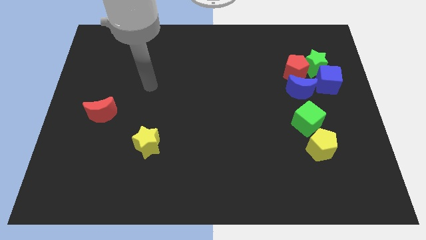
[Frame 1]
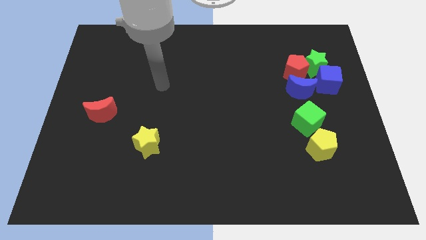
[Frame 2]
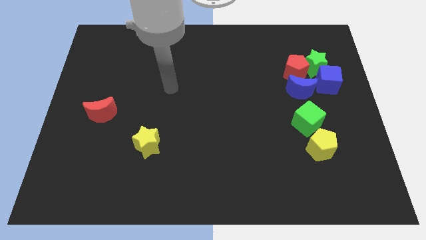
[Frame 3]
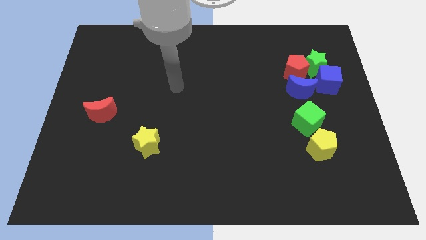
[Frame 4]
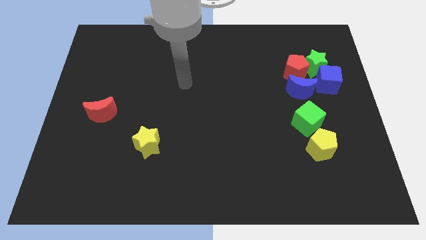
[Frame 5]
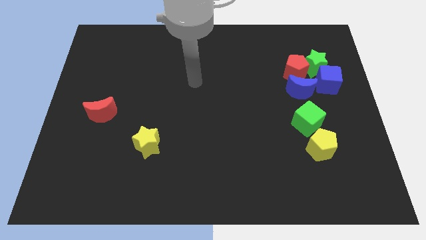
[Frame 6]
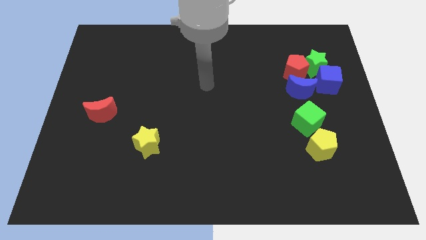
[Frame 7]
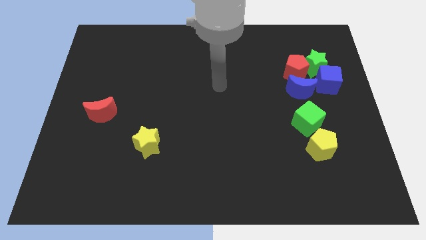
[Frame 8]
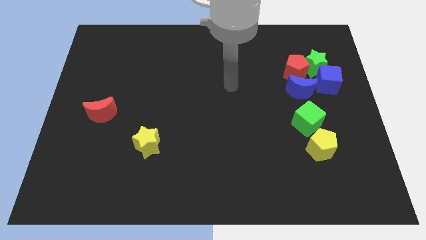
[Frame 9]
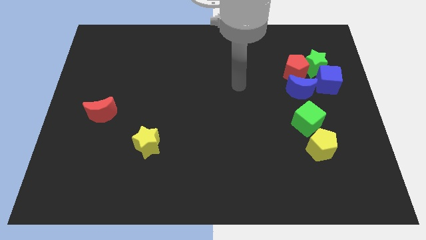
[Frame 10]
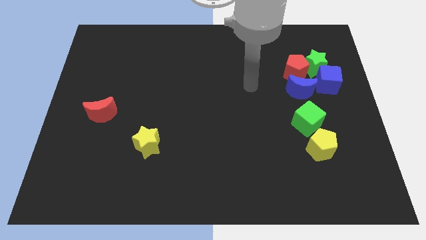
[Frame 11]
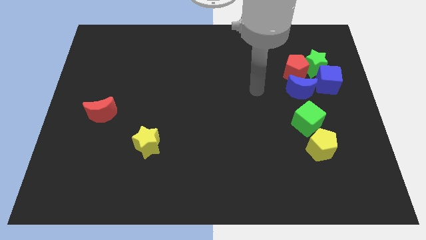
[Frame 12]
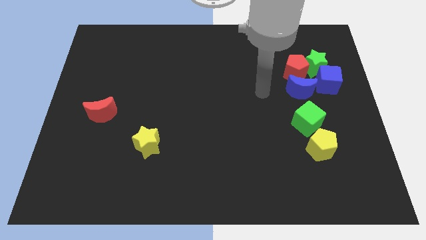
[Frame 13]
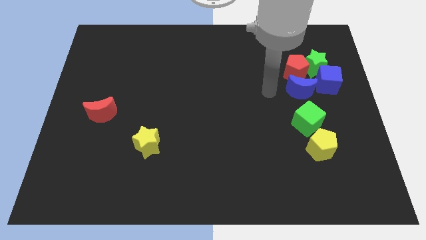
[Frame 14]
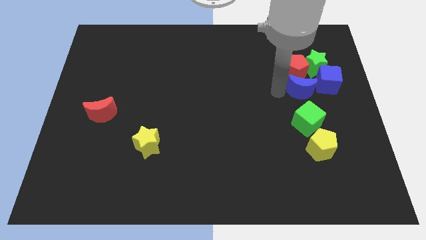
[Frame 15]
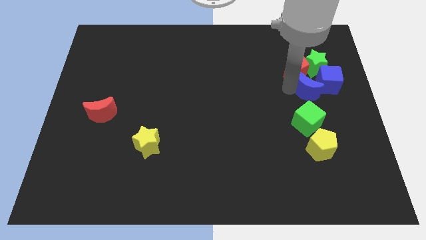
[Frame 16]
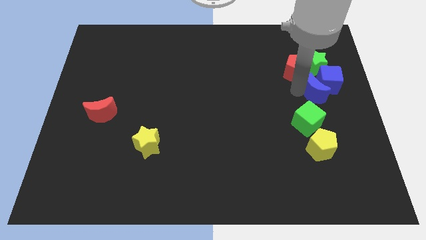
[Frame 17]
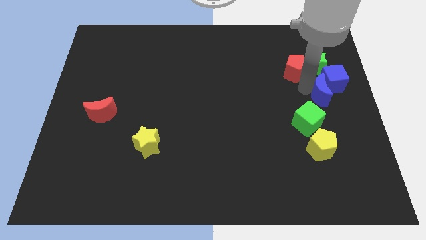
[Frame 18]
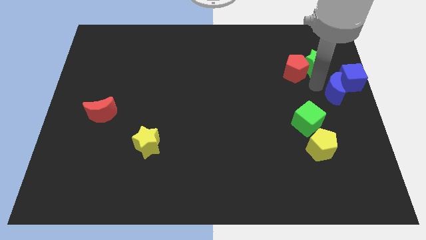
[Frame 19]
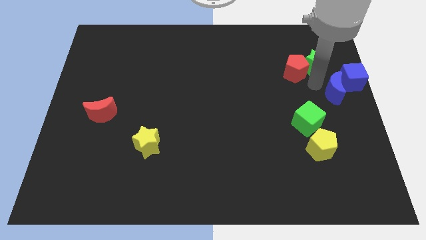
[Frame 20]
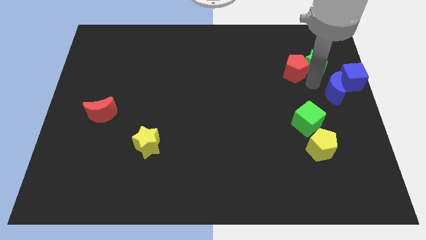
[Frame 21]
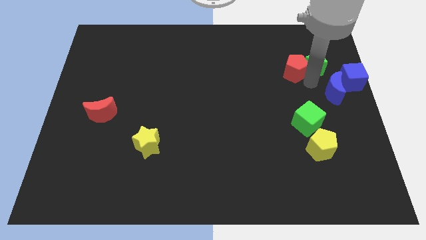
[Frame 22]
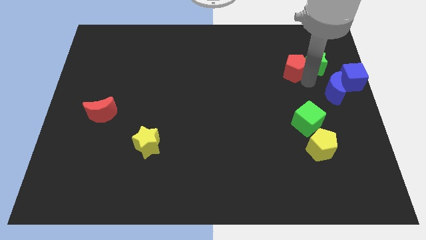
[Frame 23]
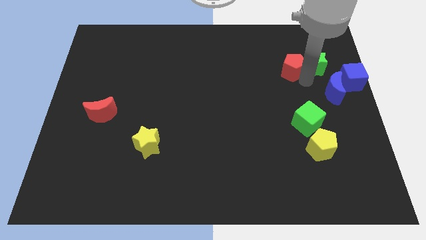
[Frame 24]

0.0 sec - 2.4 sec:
separate the red pentagon from the clump

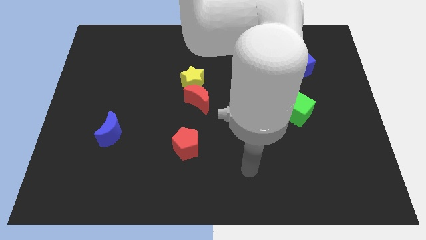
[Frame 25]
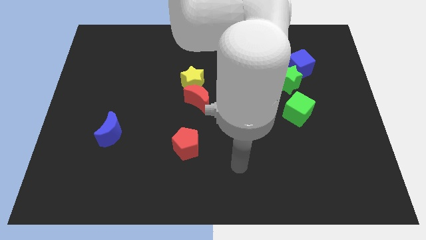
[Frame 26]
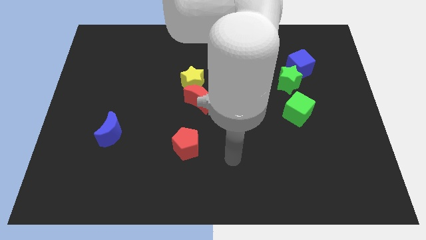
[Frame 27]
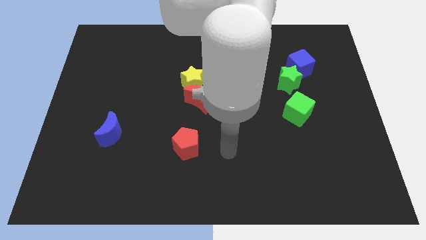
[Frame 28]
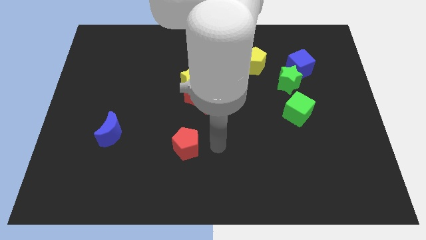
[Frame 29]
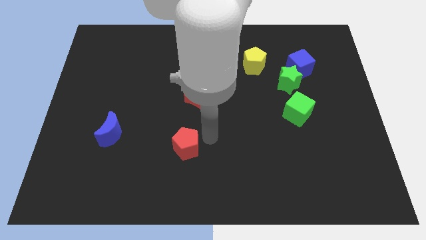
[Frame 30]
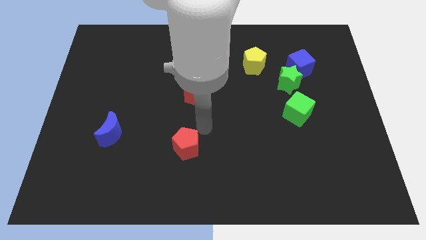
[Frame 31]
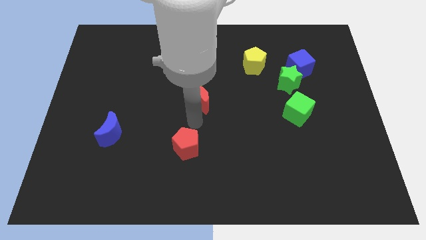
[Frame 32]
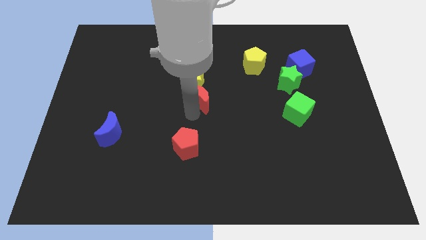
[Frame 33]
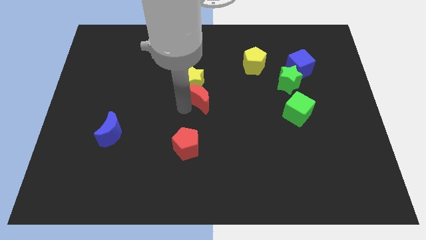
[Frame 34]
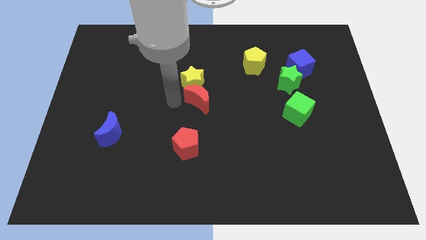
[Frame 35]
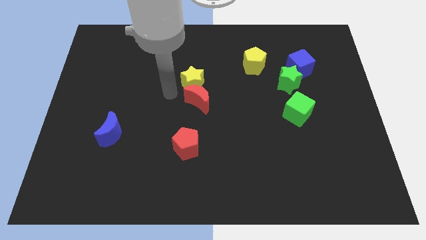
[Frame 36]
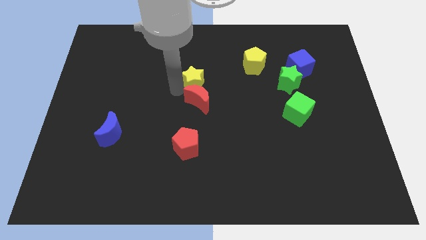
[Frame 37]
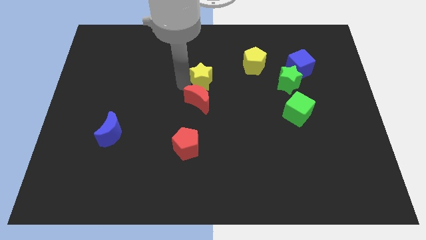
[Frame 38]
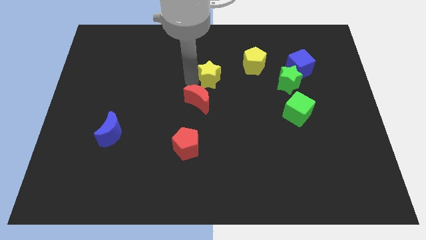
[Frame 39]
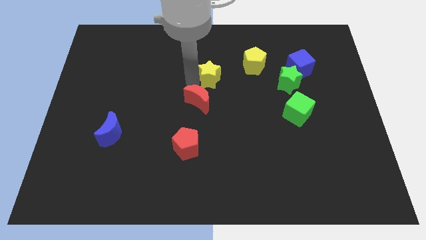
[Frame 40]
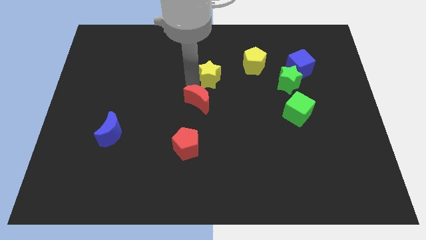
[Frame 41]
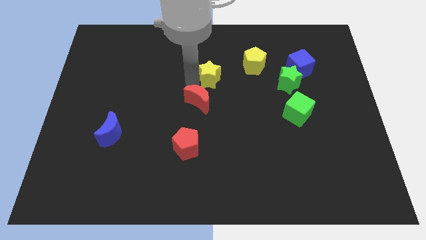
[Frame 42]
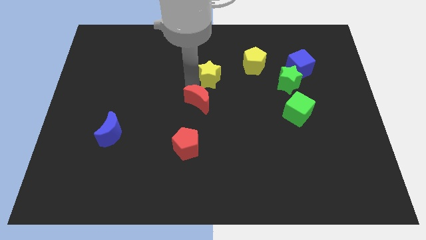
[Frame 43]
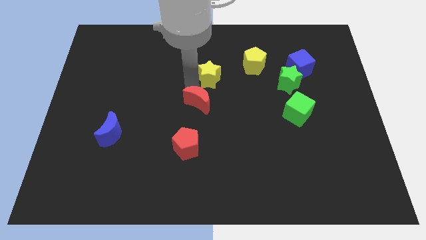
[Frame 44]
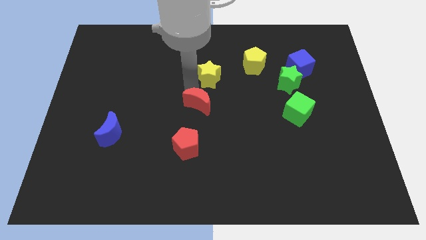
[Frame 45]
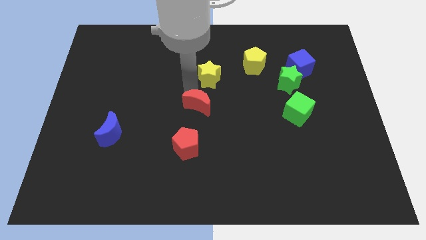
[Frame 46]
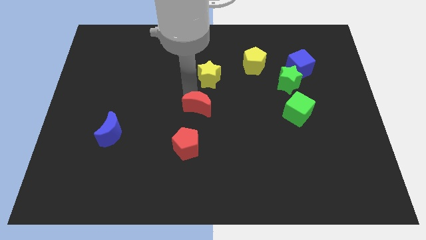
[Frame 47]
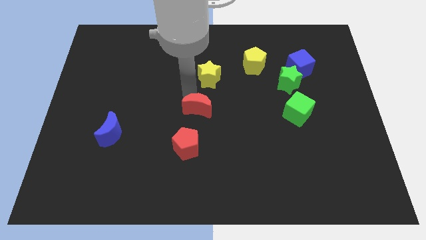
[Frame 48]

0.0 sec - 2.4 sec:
pull the red moon apart from the yellow star

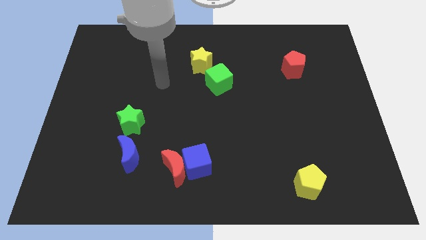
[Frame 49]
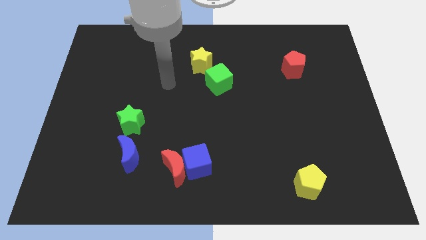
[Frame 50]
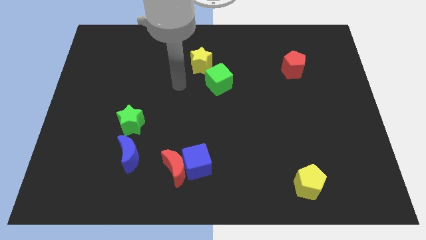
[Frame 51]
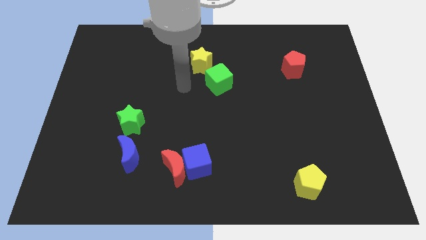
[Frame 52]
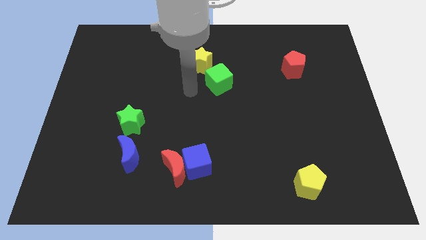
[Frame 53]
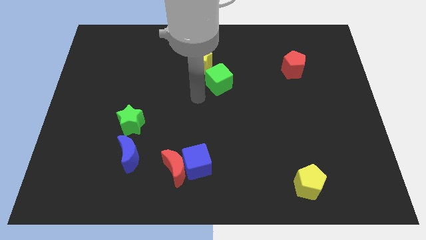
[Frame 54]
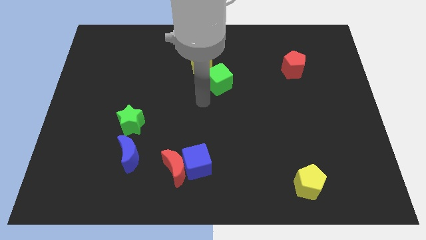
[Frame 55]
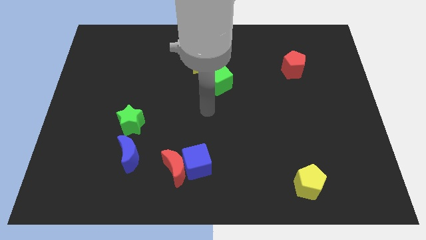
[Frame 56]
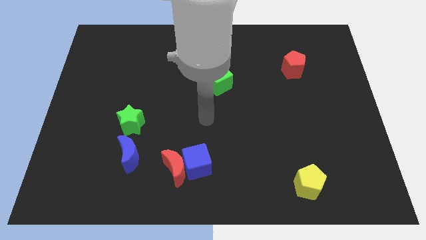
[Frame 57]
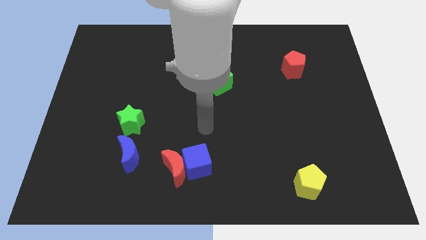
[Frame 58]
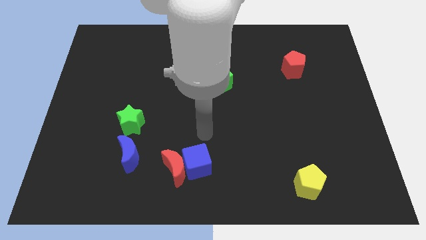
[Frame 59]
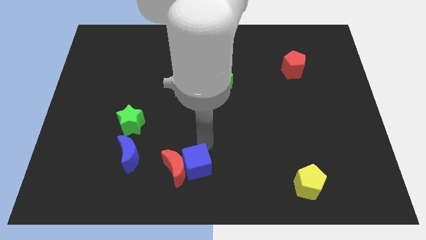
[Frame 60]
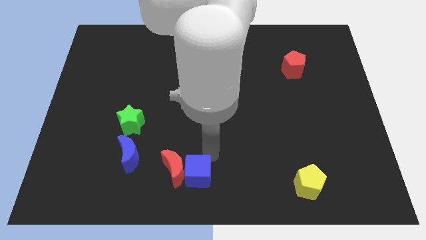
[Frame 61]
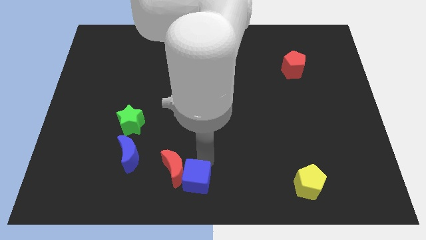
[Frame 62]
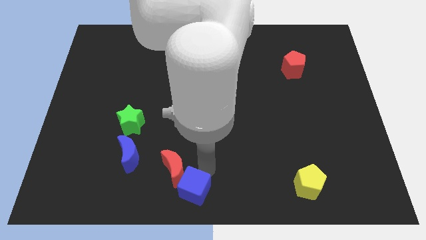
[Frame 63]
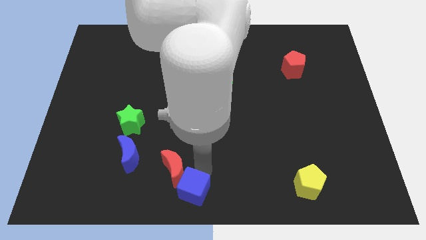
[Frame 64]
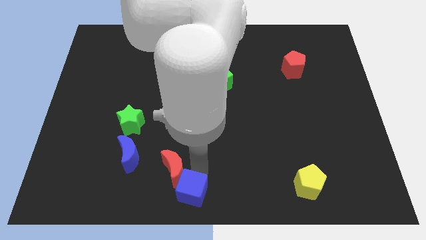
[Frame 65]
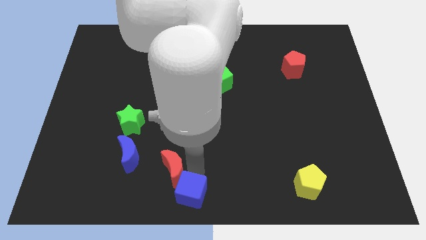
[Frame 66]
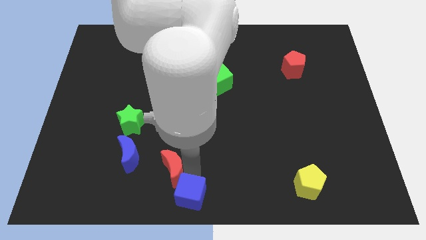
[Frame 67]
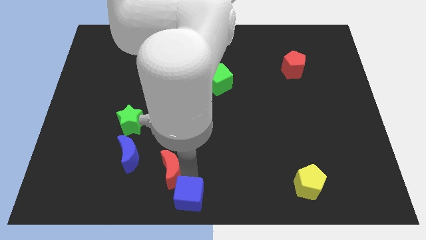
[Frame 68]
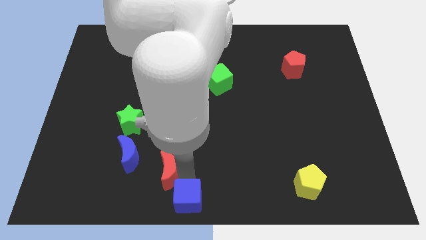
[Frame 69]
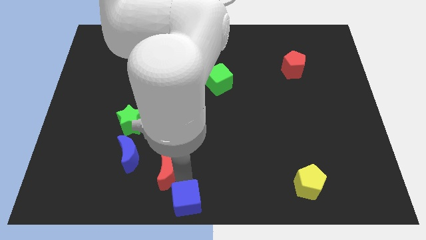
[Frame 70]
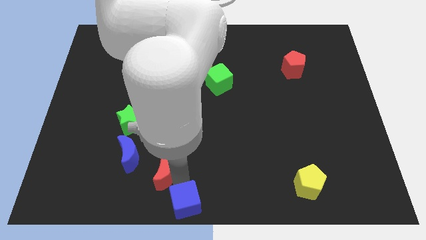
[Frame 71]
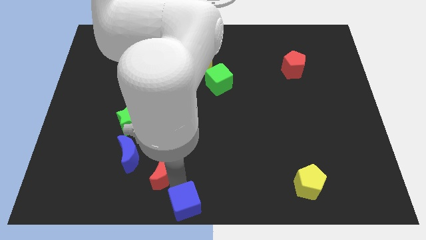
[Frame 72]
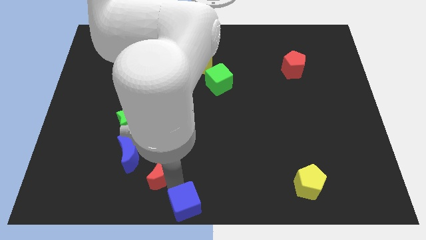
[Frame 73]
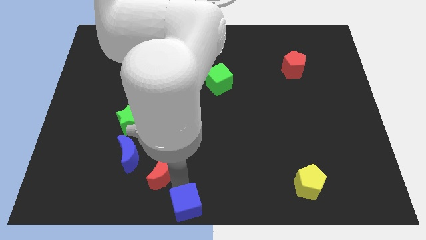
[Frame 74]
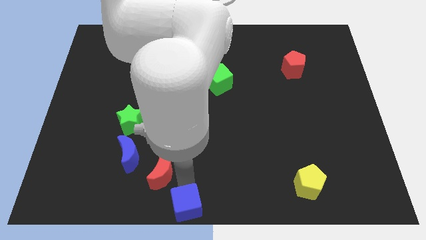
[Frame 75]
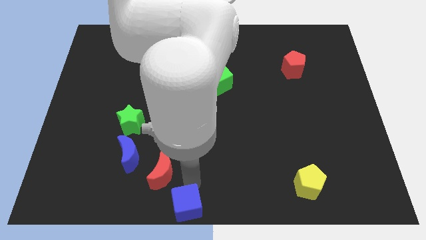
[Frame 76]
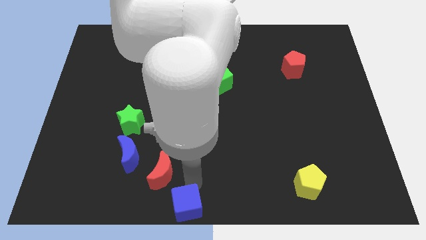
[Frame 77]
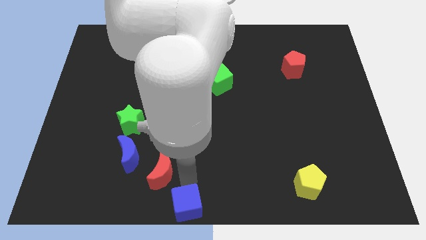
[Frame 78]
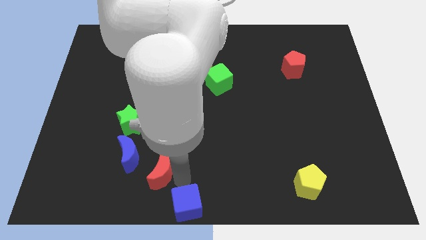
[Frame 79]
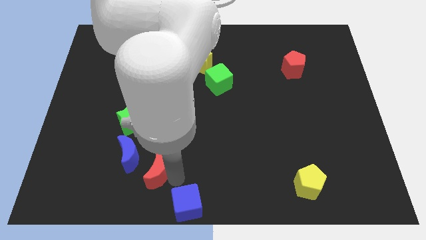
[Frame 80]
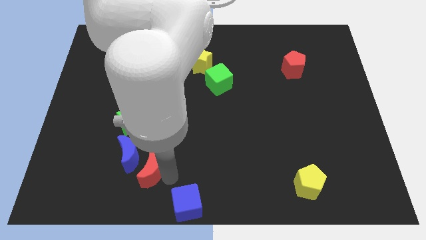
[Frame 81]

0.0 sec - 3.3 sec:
move the red moon away from the blue cube

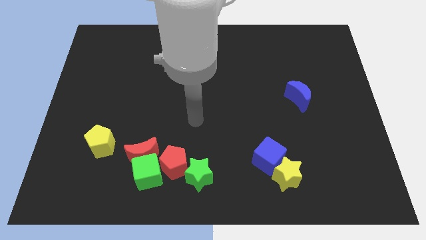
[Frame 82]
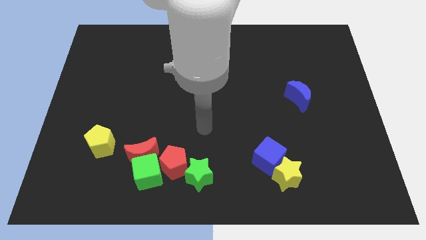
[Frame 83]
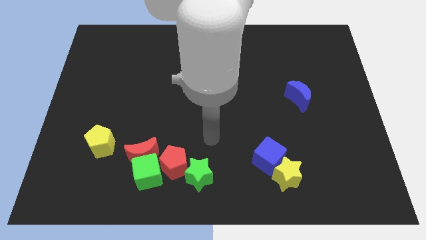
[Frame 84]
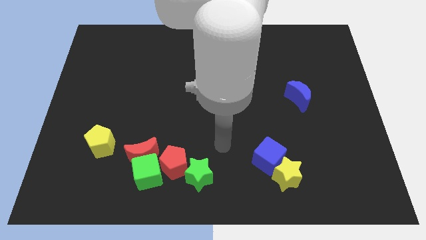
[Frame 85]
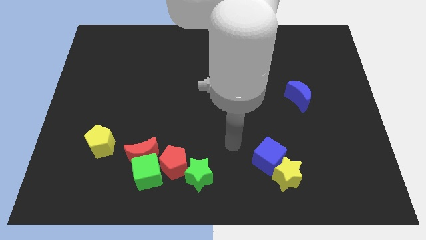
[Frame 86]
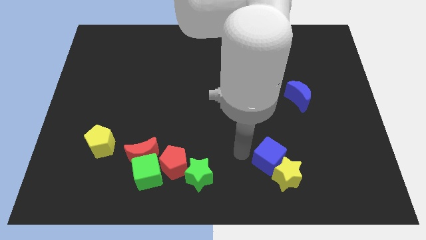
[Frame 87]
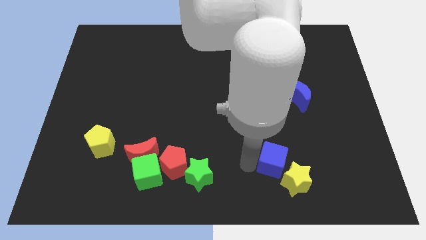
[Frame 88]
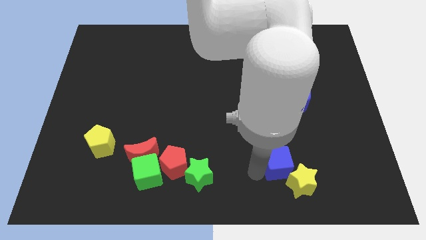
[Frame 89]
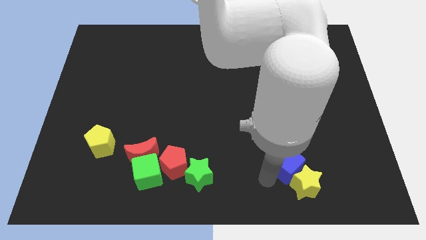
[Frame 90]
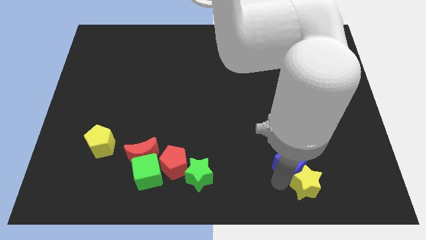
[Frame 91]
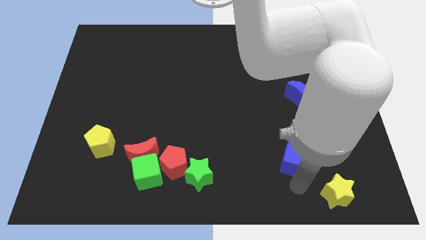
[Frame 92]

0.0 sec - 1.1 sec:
move the blue cube away from the yellow star
